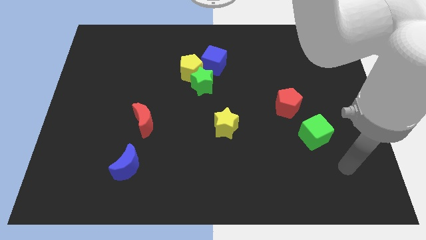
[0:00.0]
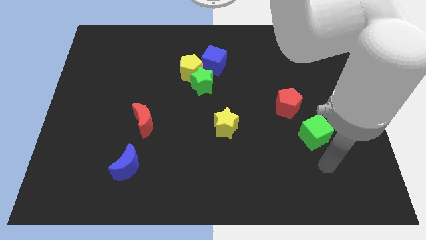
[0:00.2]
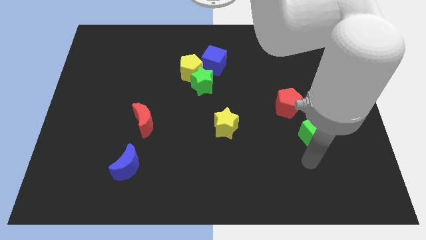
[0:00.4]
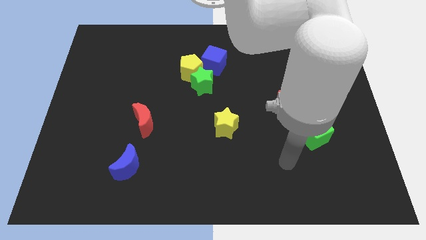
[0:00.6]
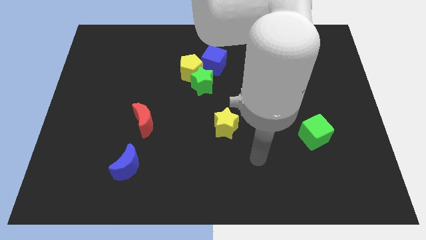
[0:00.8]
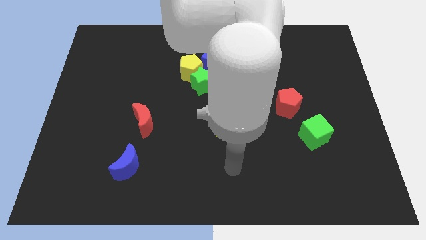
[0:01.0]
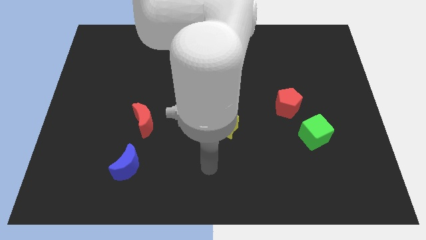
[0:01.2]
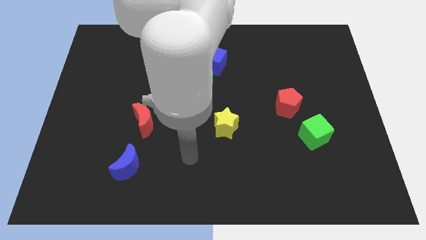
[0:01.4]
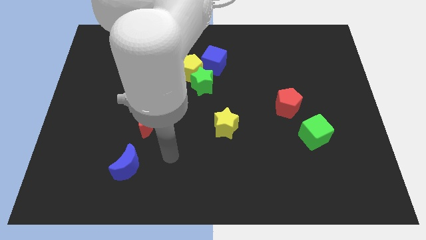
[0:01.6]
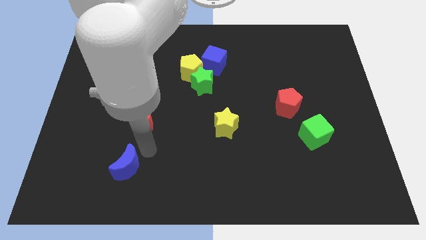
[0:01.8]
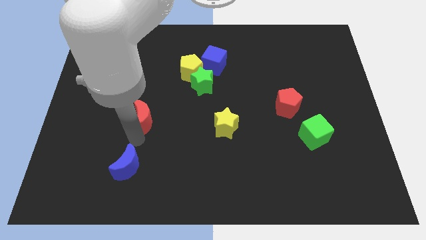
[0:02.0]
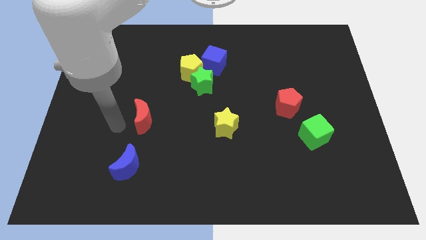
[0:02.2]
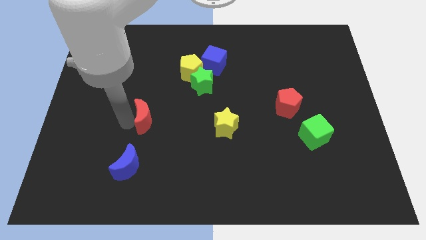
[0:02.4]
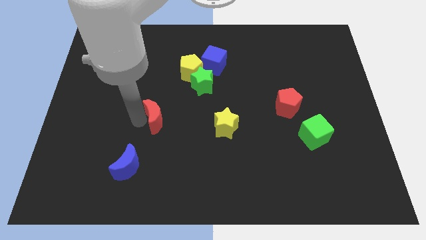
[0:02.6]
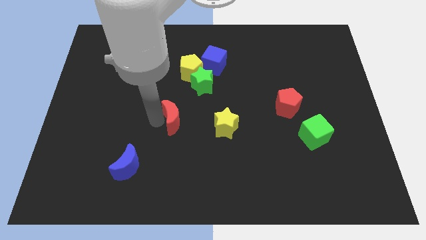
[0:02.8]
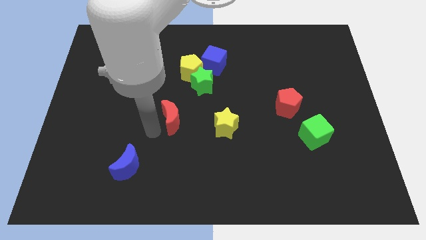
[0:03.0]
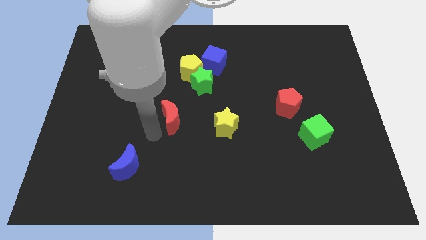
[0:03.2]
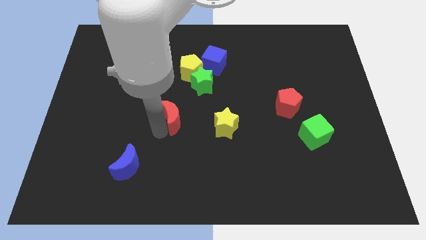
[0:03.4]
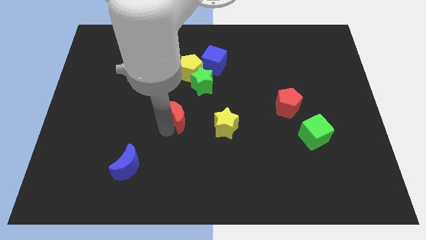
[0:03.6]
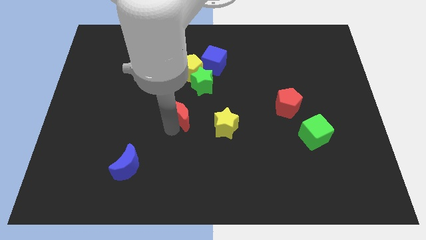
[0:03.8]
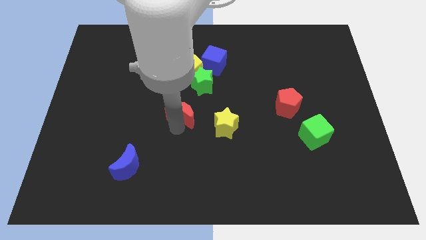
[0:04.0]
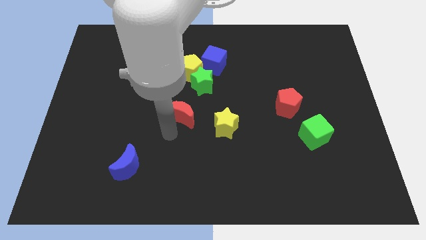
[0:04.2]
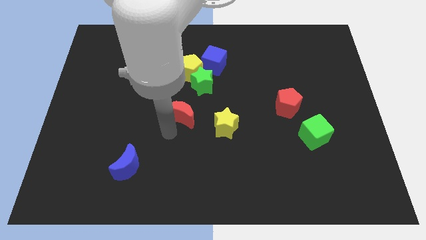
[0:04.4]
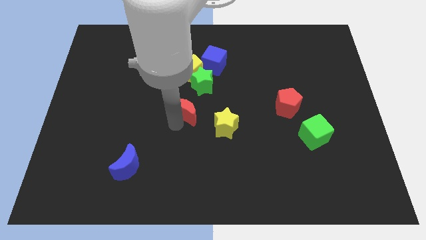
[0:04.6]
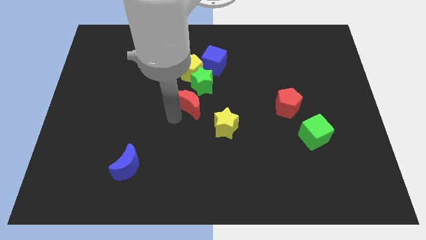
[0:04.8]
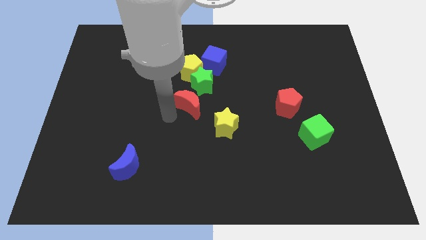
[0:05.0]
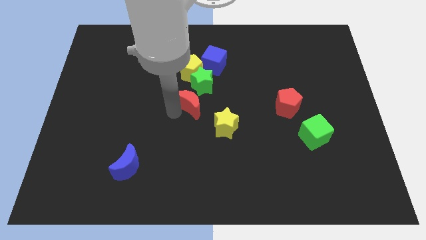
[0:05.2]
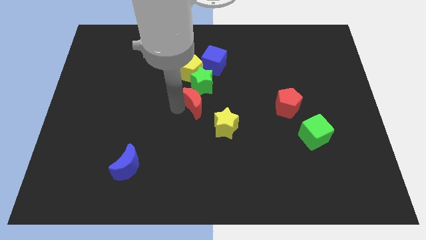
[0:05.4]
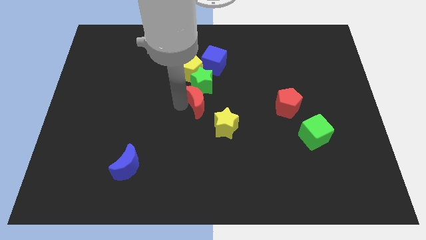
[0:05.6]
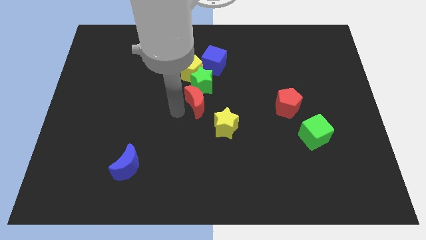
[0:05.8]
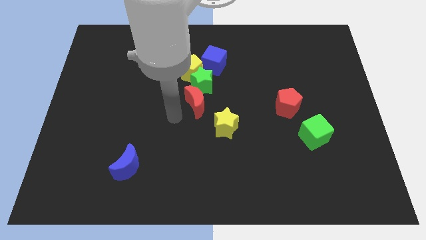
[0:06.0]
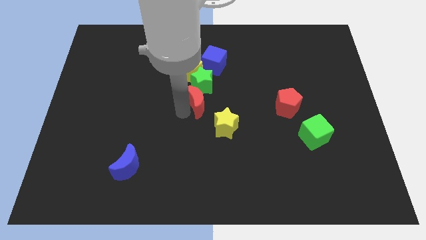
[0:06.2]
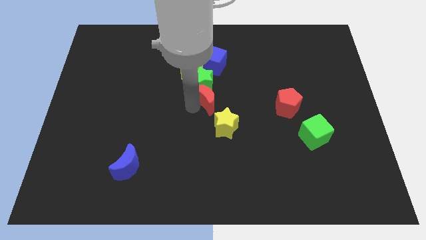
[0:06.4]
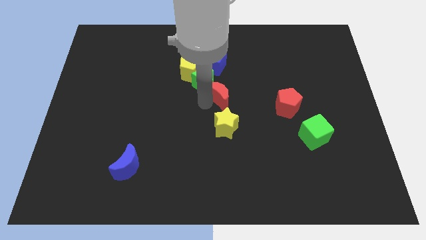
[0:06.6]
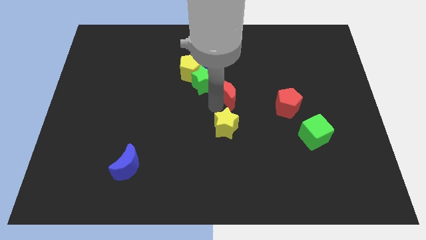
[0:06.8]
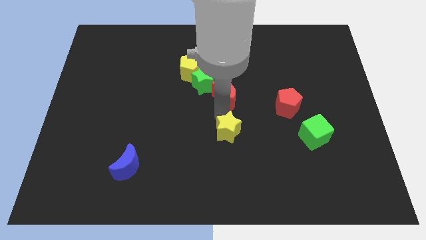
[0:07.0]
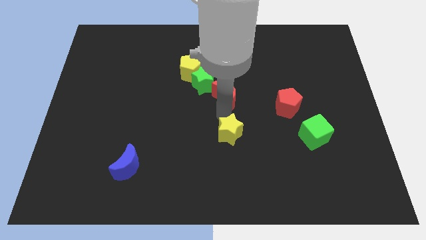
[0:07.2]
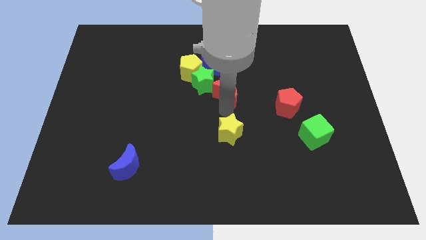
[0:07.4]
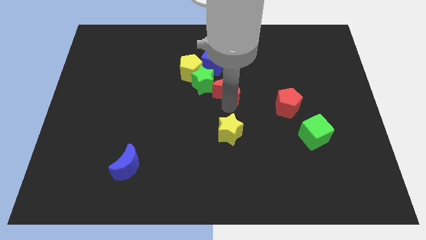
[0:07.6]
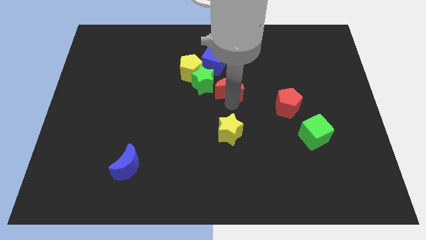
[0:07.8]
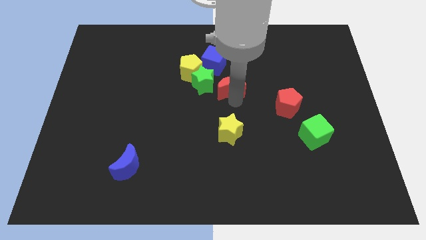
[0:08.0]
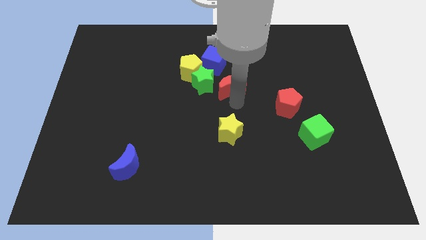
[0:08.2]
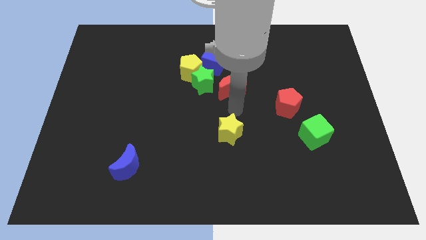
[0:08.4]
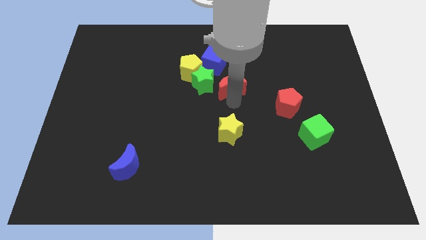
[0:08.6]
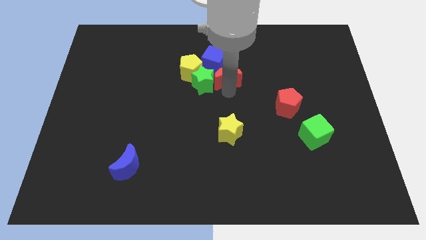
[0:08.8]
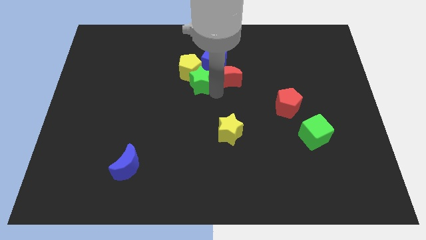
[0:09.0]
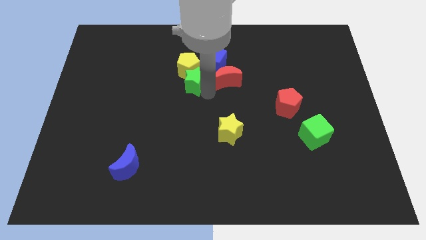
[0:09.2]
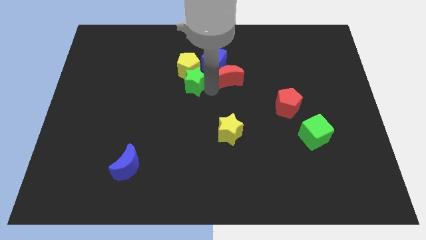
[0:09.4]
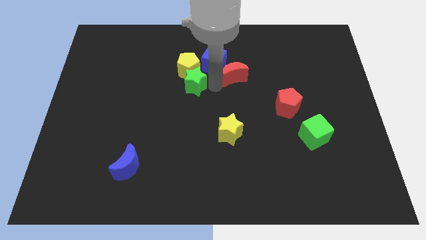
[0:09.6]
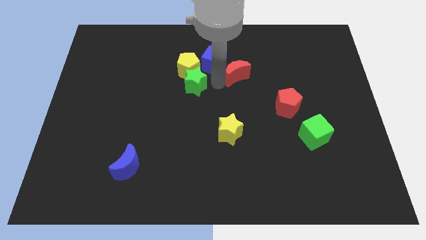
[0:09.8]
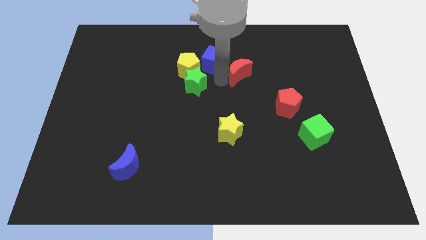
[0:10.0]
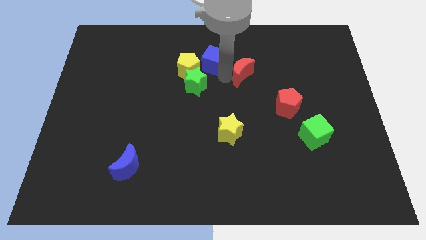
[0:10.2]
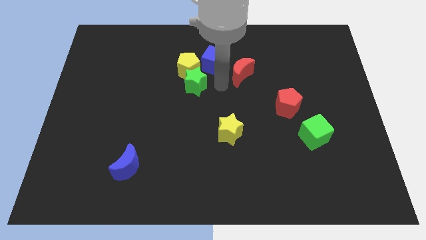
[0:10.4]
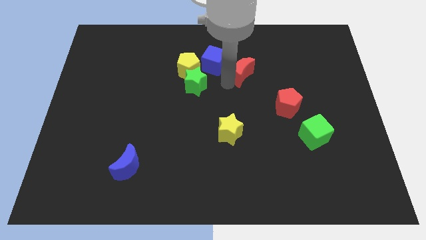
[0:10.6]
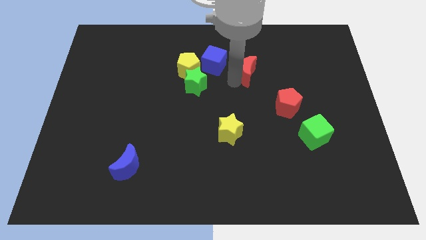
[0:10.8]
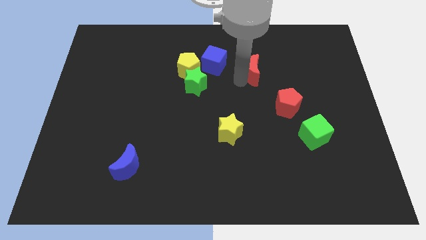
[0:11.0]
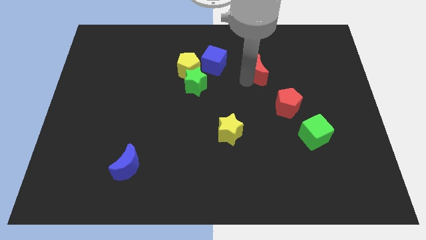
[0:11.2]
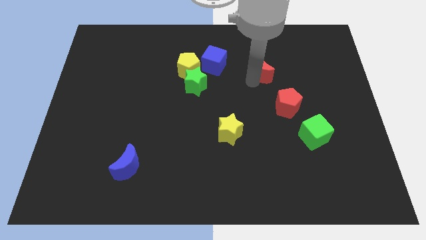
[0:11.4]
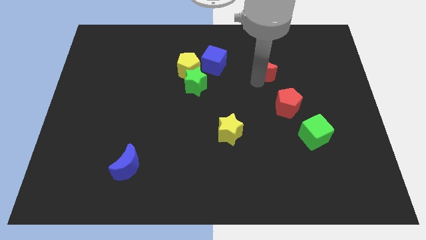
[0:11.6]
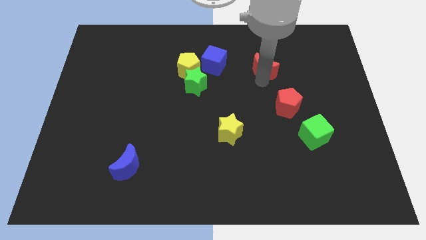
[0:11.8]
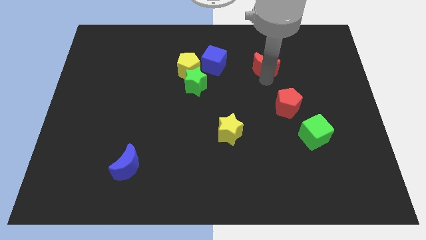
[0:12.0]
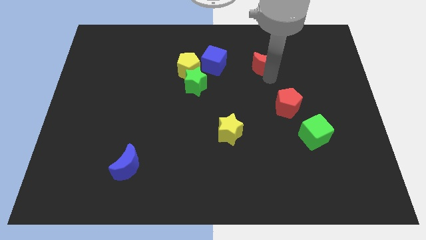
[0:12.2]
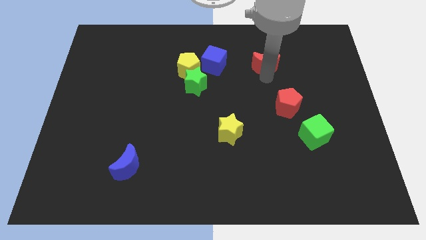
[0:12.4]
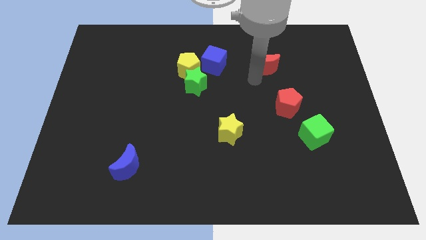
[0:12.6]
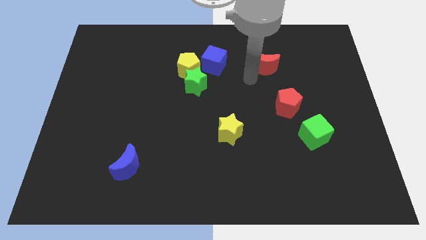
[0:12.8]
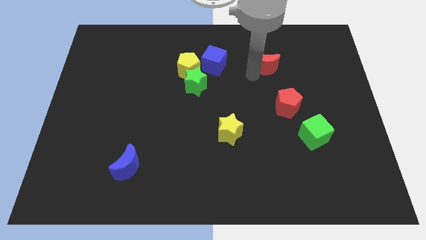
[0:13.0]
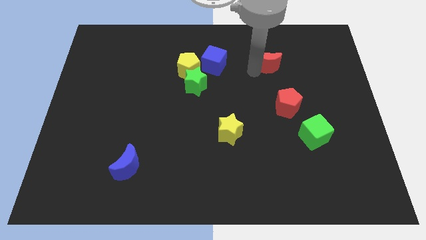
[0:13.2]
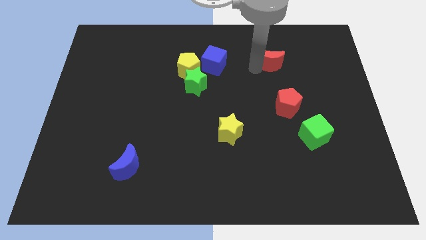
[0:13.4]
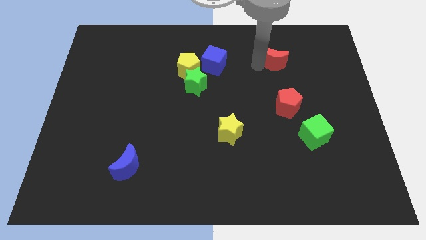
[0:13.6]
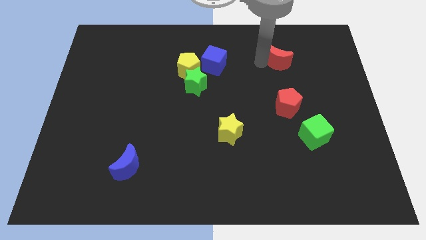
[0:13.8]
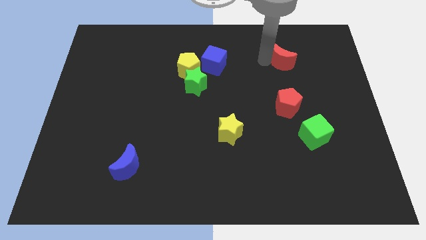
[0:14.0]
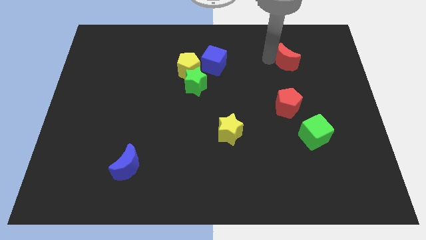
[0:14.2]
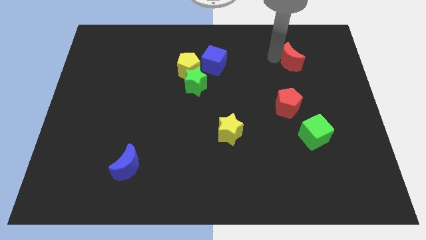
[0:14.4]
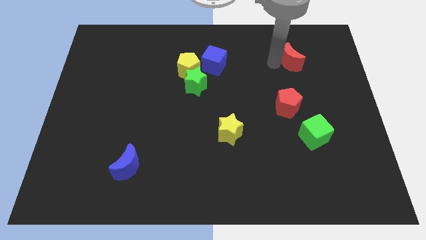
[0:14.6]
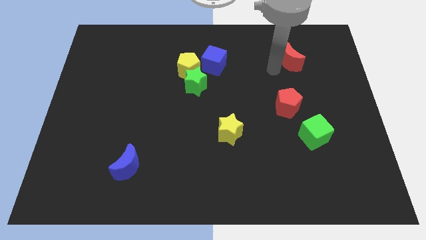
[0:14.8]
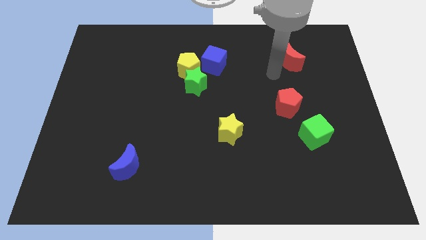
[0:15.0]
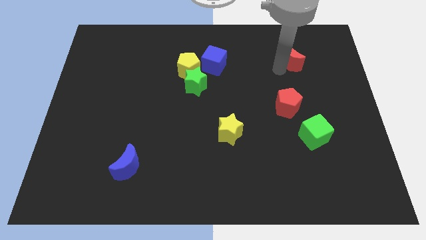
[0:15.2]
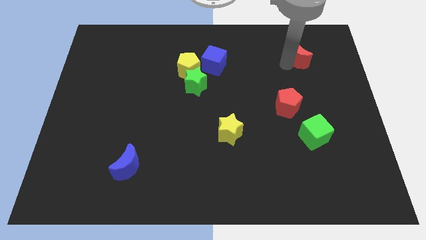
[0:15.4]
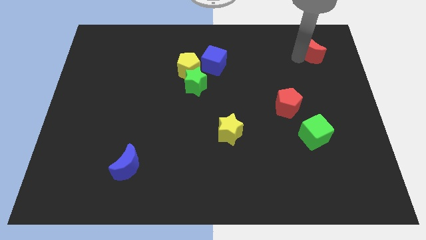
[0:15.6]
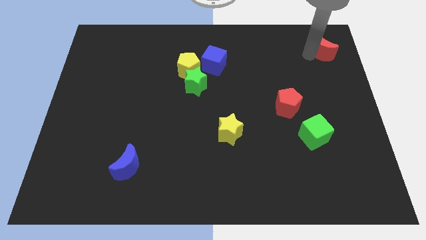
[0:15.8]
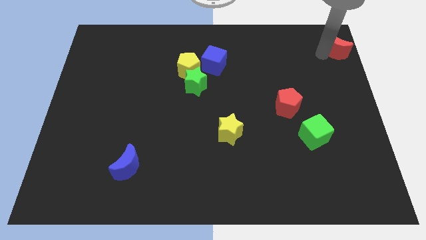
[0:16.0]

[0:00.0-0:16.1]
put the red moon to the top right
